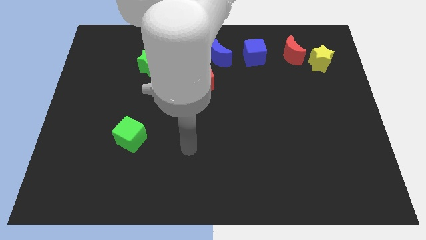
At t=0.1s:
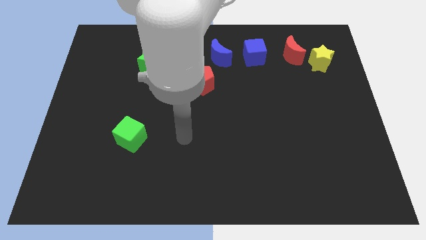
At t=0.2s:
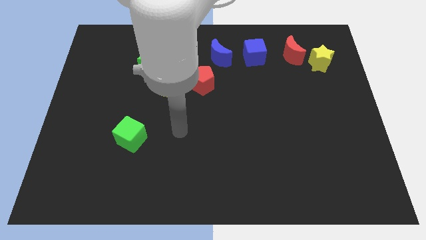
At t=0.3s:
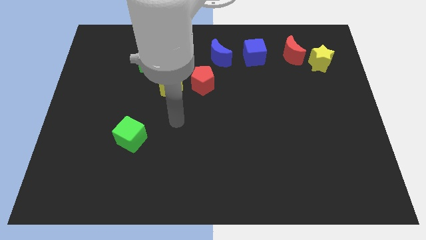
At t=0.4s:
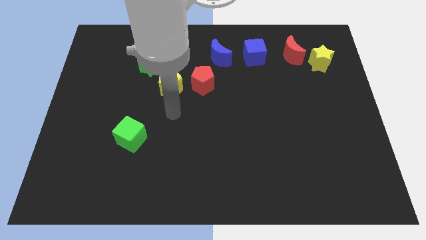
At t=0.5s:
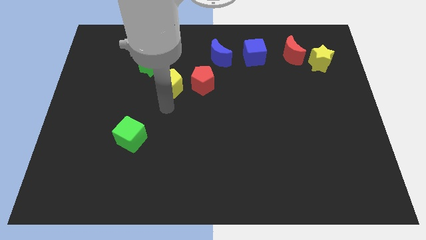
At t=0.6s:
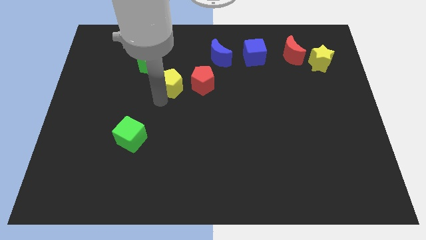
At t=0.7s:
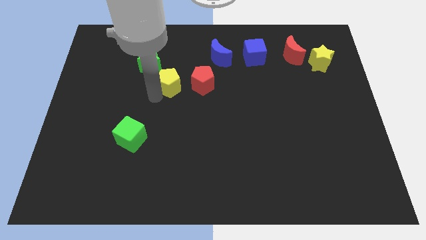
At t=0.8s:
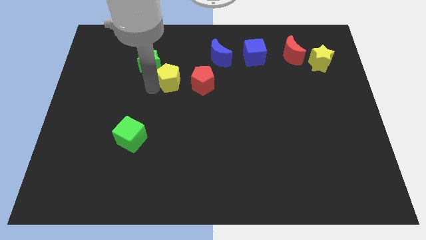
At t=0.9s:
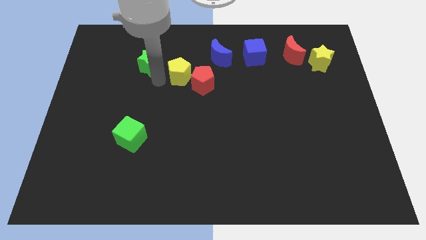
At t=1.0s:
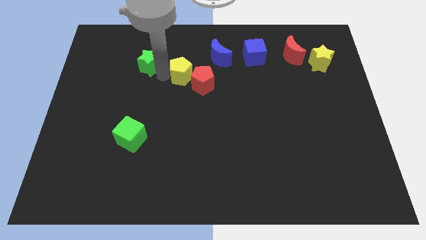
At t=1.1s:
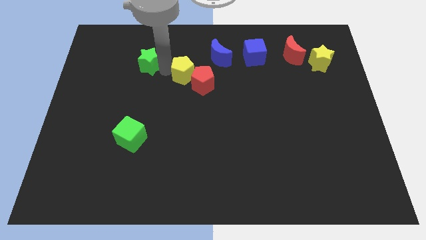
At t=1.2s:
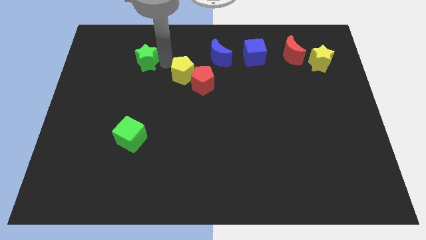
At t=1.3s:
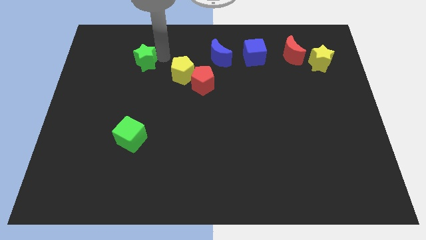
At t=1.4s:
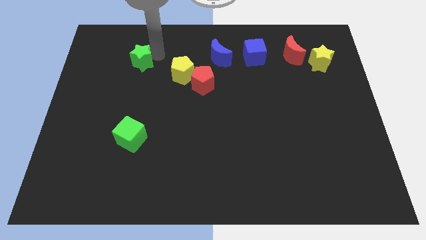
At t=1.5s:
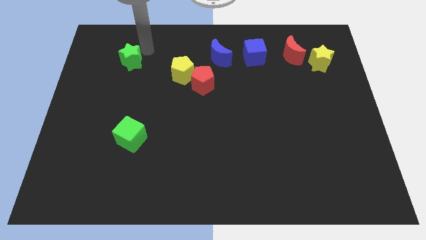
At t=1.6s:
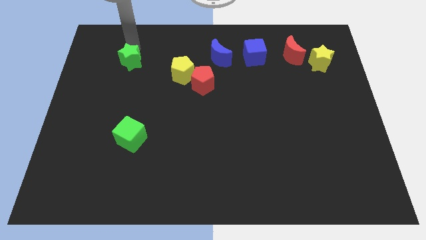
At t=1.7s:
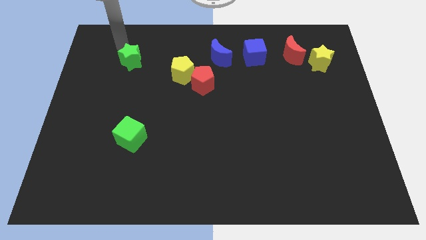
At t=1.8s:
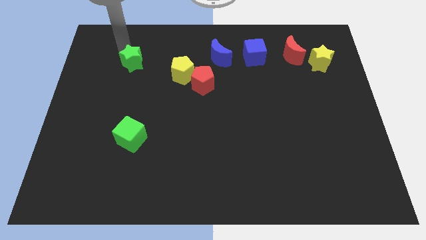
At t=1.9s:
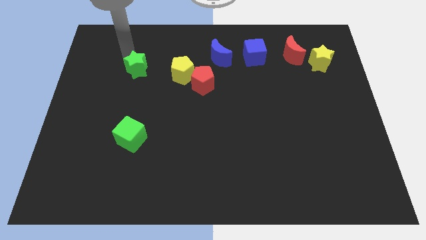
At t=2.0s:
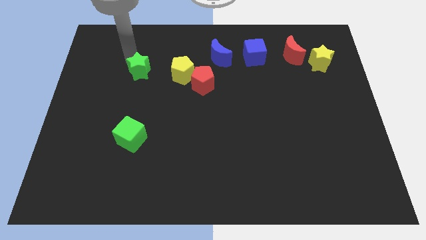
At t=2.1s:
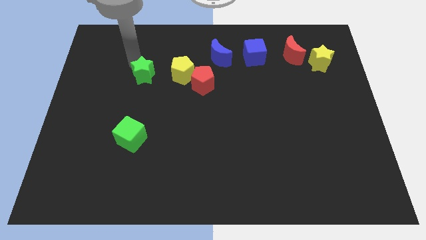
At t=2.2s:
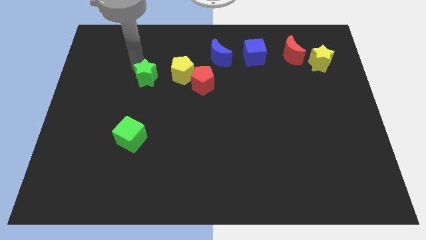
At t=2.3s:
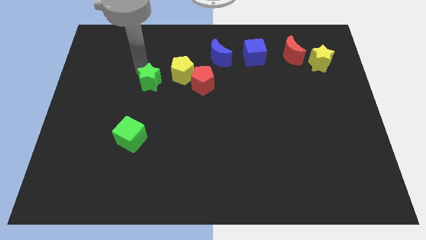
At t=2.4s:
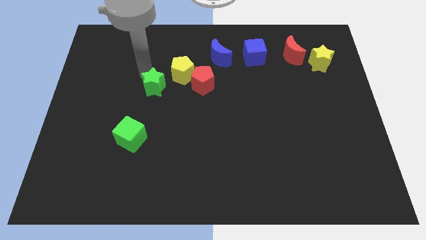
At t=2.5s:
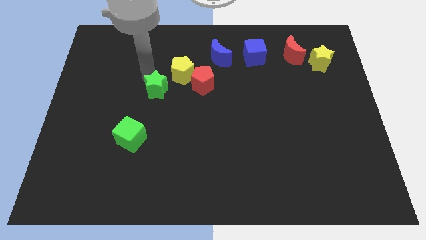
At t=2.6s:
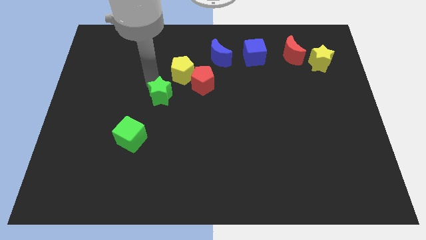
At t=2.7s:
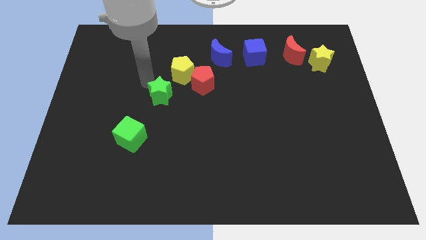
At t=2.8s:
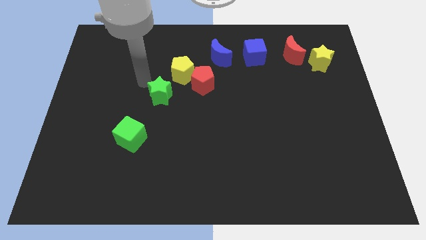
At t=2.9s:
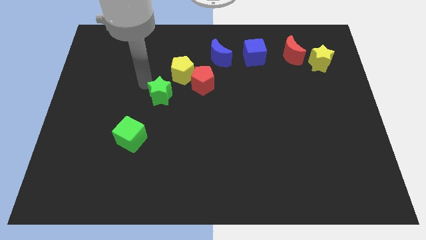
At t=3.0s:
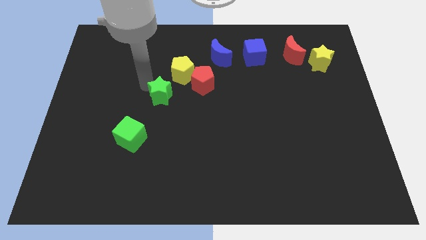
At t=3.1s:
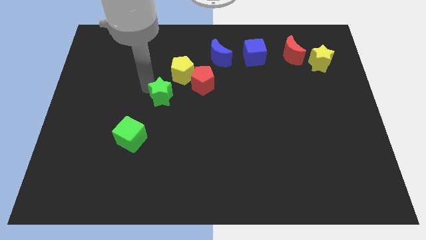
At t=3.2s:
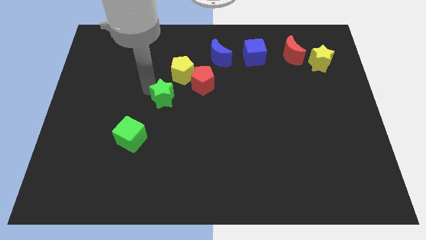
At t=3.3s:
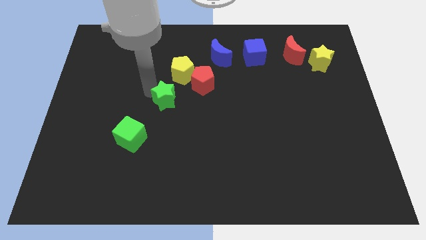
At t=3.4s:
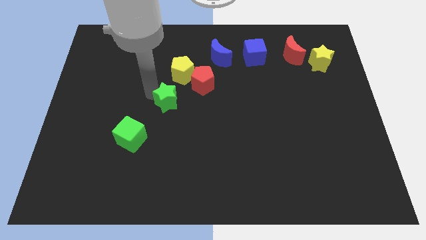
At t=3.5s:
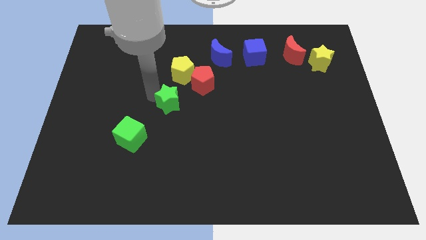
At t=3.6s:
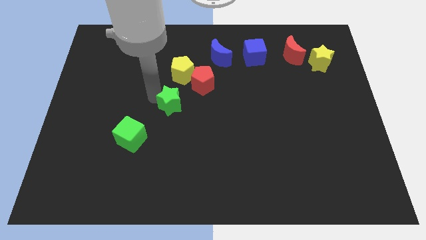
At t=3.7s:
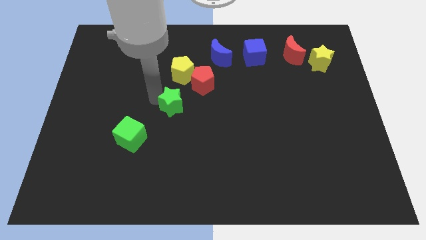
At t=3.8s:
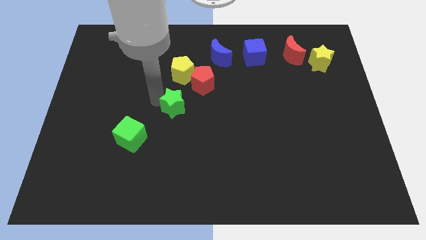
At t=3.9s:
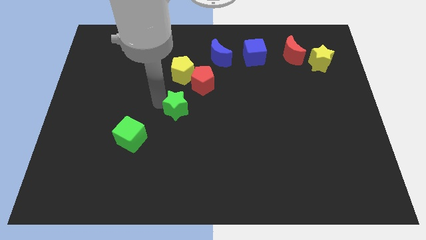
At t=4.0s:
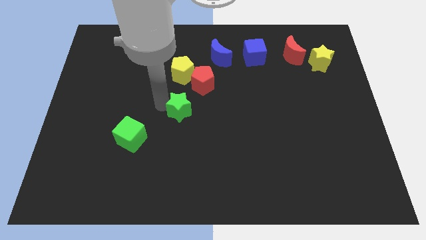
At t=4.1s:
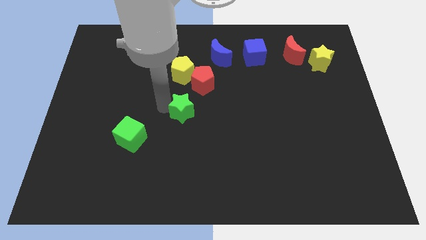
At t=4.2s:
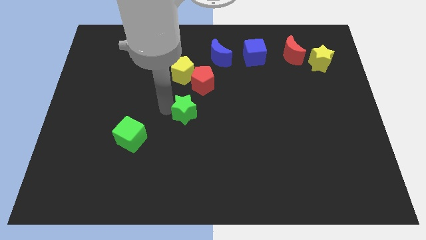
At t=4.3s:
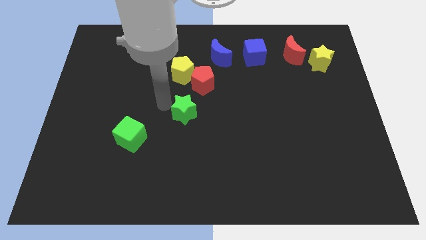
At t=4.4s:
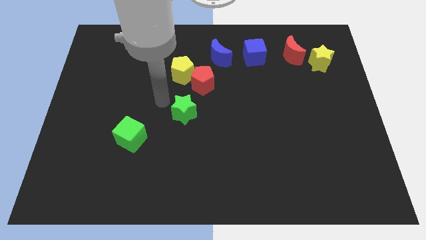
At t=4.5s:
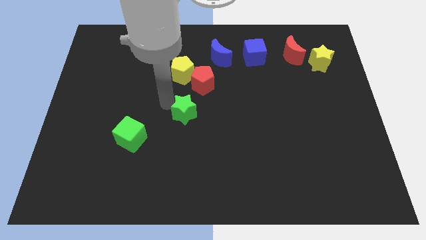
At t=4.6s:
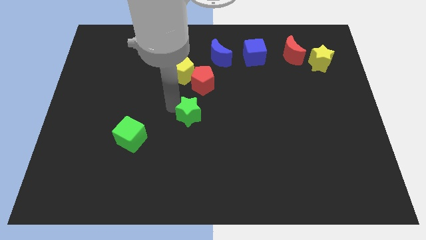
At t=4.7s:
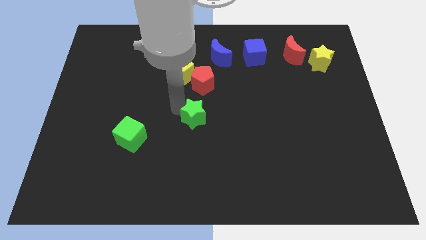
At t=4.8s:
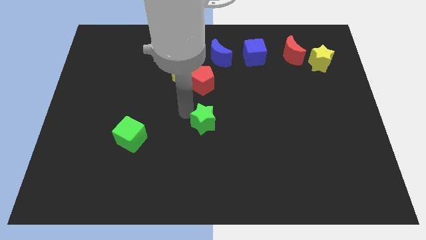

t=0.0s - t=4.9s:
slide the green star diagonally down and right

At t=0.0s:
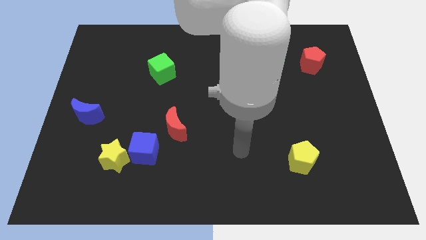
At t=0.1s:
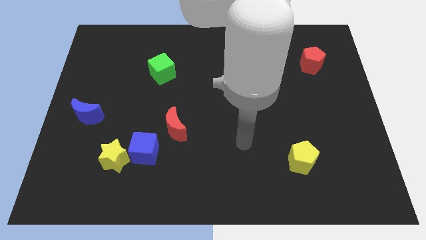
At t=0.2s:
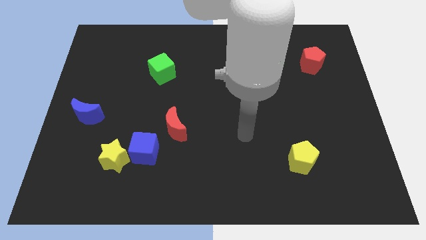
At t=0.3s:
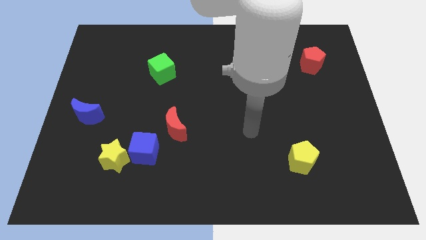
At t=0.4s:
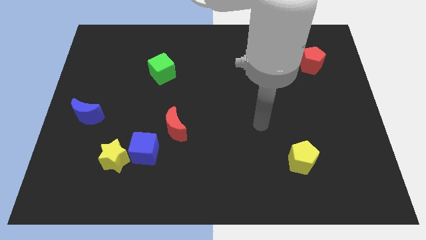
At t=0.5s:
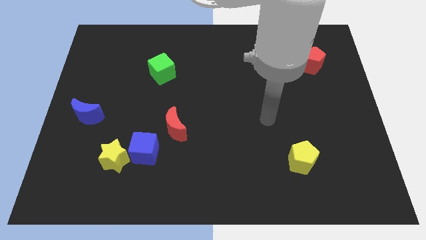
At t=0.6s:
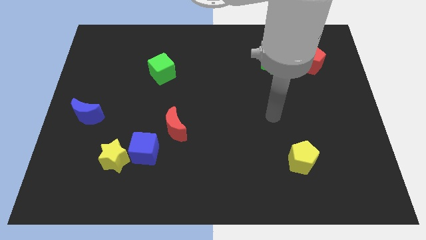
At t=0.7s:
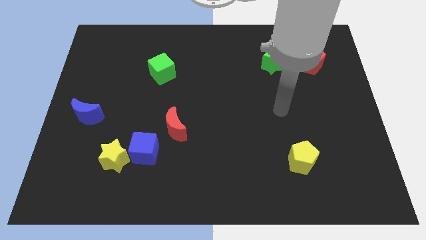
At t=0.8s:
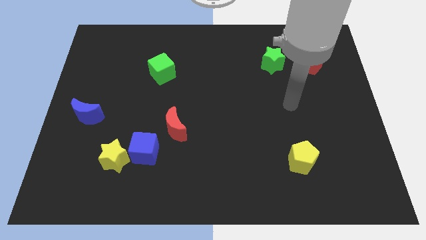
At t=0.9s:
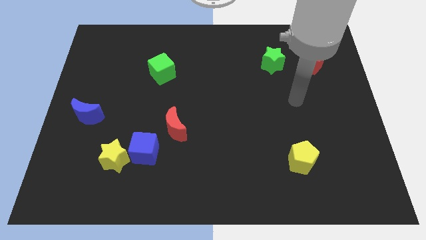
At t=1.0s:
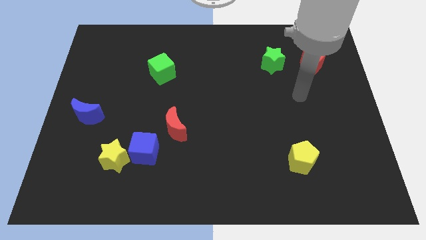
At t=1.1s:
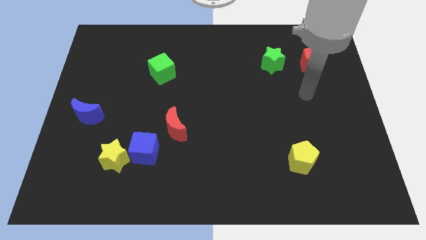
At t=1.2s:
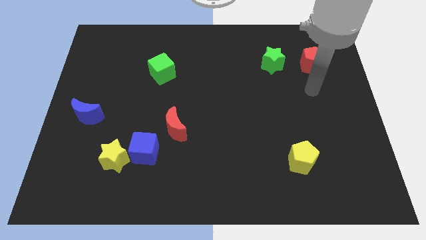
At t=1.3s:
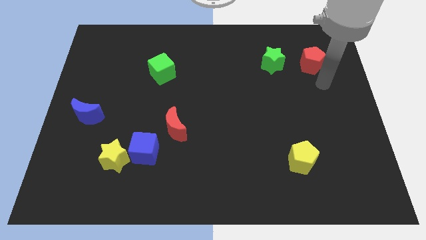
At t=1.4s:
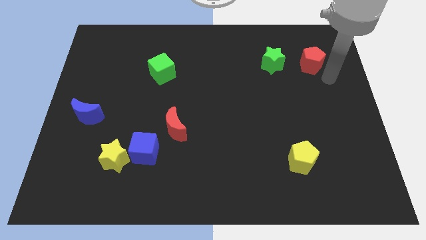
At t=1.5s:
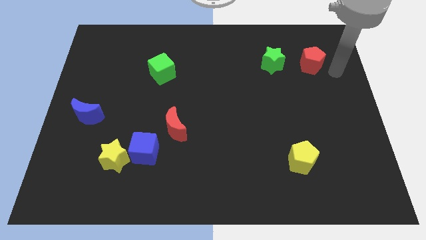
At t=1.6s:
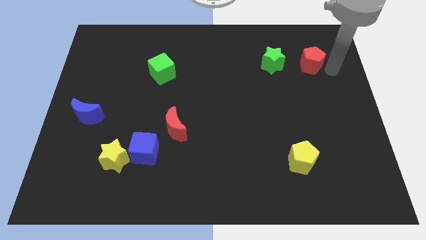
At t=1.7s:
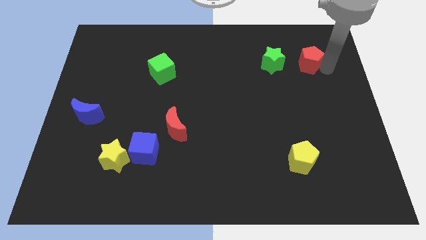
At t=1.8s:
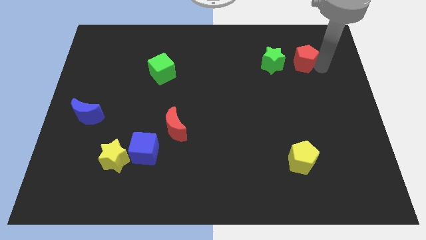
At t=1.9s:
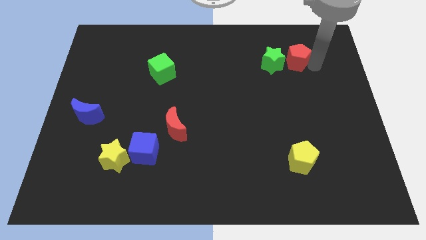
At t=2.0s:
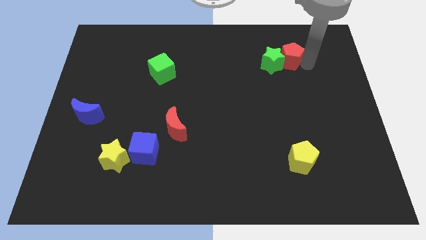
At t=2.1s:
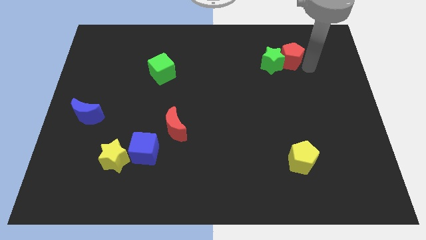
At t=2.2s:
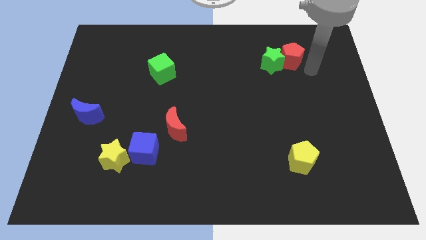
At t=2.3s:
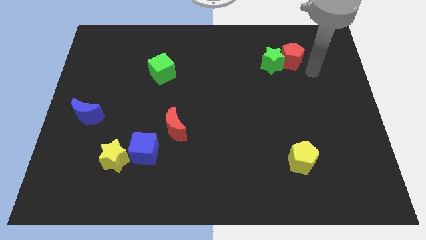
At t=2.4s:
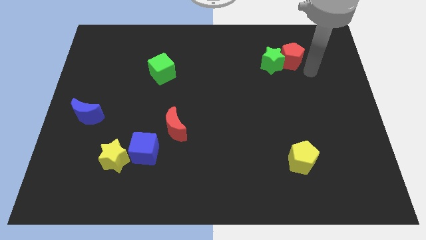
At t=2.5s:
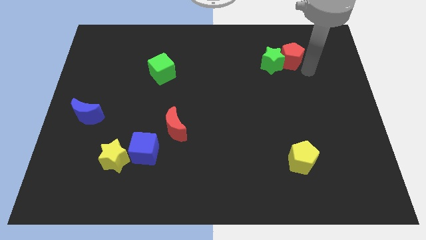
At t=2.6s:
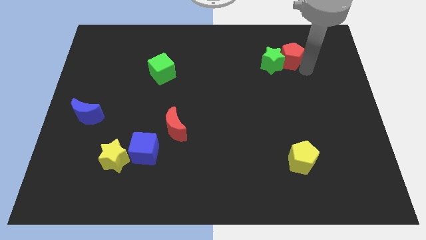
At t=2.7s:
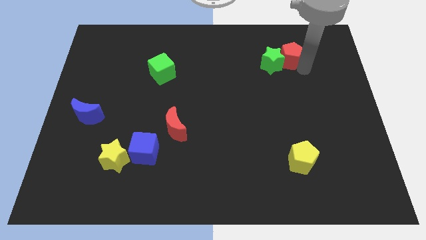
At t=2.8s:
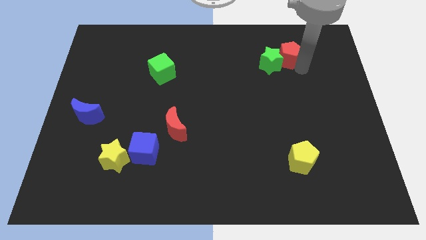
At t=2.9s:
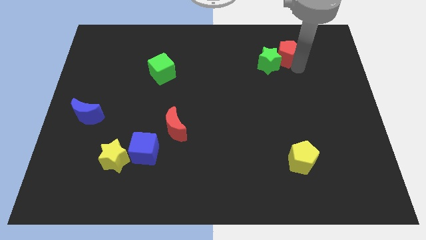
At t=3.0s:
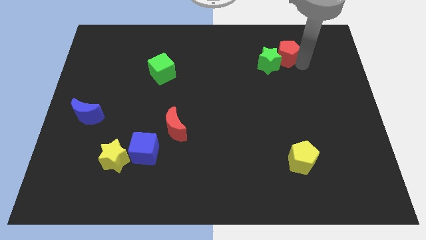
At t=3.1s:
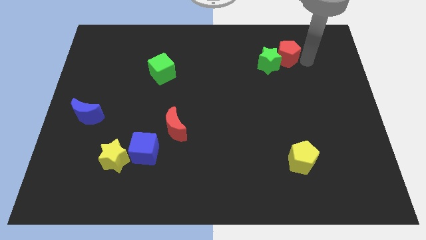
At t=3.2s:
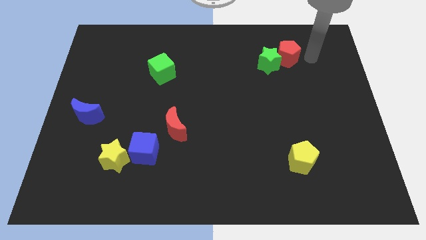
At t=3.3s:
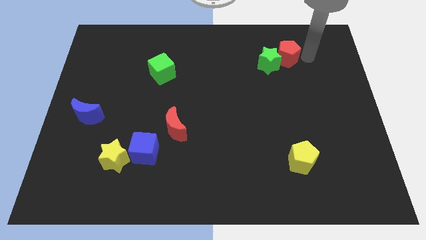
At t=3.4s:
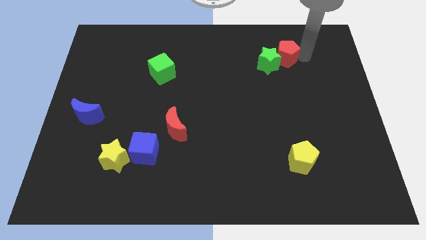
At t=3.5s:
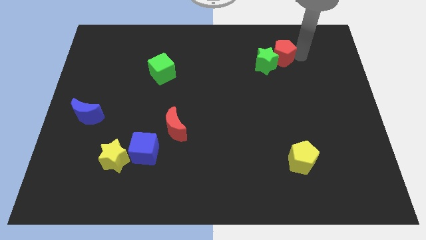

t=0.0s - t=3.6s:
slightly slide the red pentagon left
